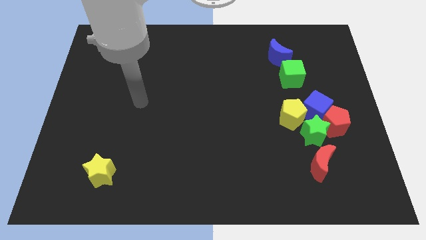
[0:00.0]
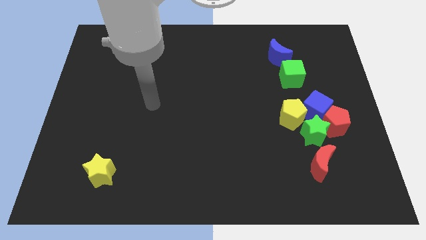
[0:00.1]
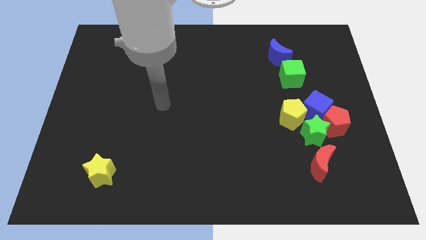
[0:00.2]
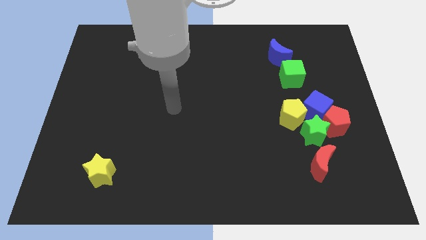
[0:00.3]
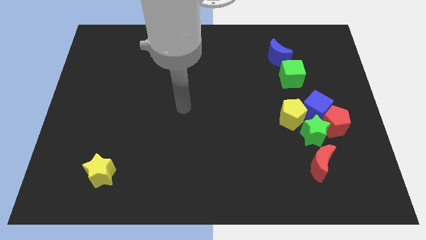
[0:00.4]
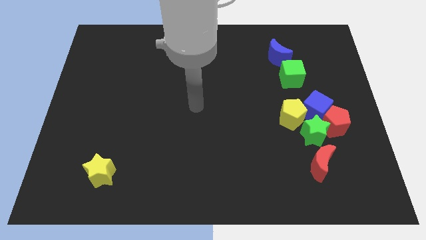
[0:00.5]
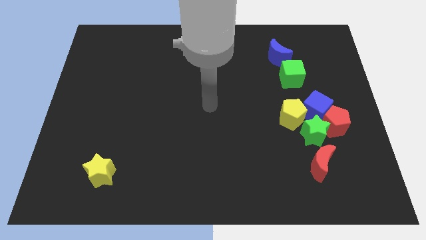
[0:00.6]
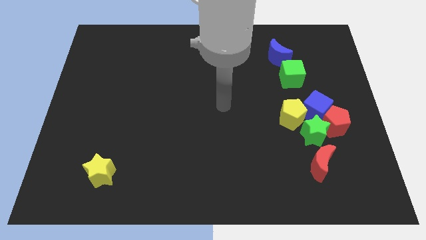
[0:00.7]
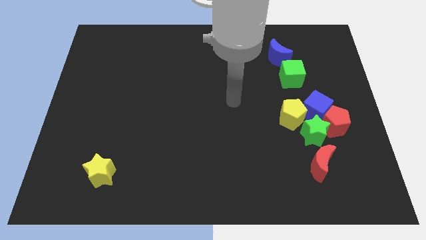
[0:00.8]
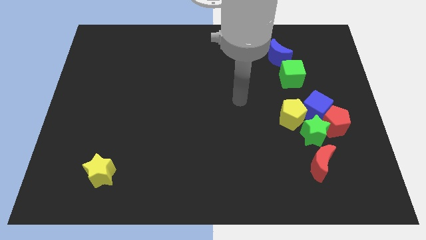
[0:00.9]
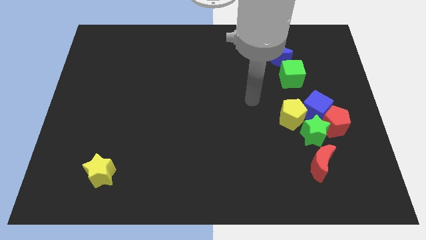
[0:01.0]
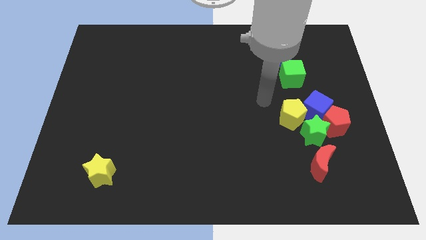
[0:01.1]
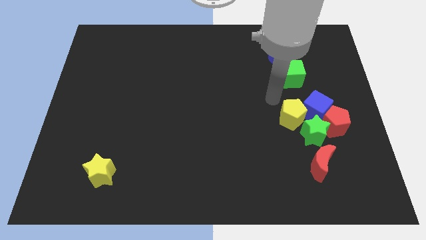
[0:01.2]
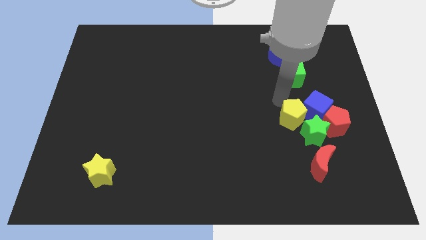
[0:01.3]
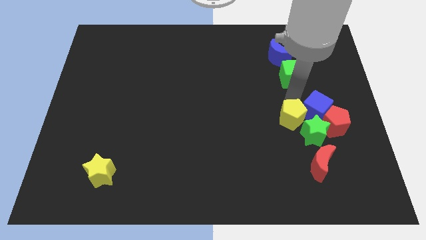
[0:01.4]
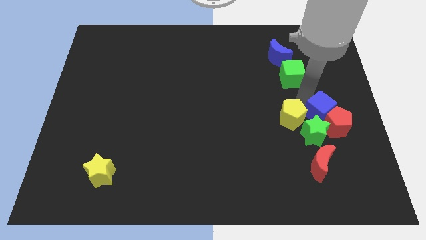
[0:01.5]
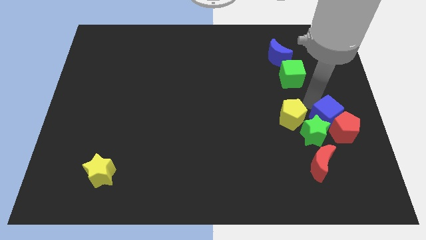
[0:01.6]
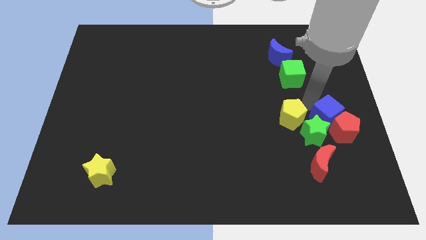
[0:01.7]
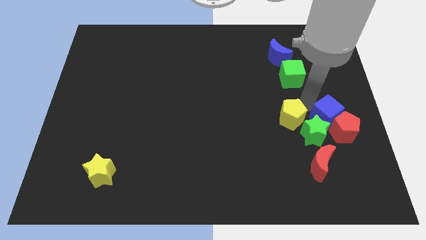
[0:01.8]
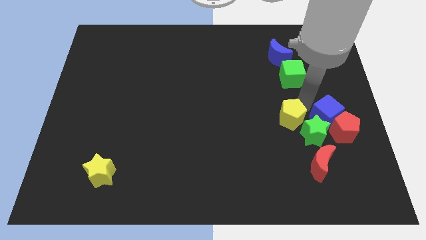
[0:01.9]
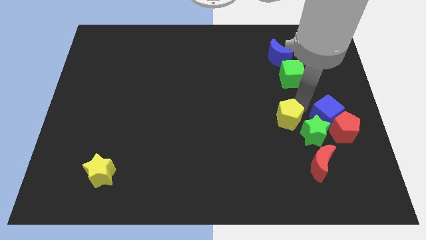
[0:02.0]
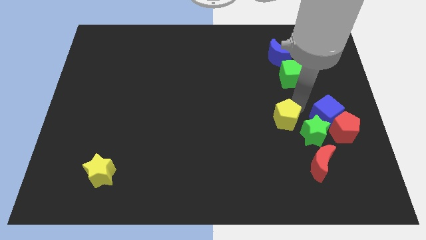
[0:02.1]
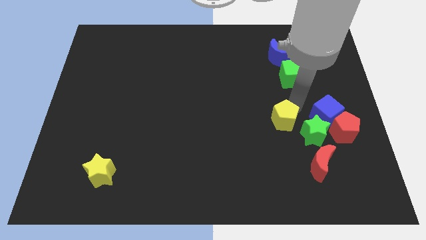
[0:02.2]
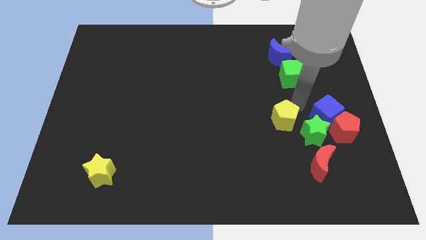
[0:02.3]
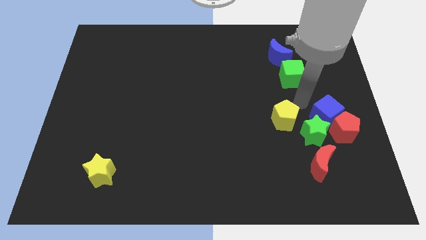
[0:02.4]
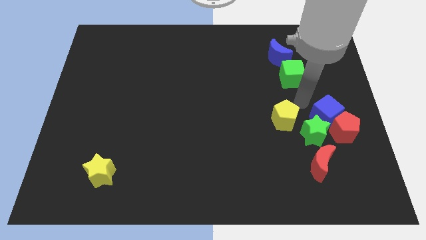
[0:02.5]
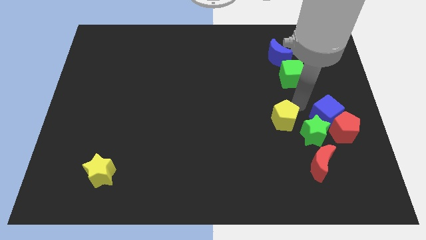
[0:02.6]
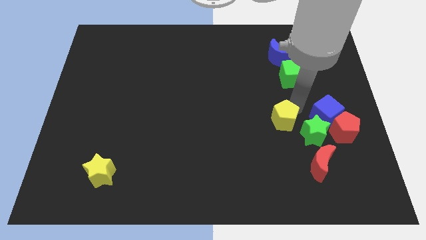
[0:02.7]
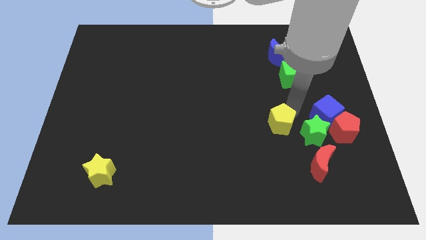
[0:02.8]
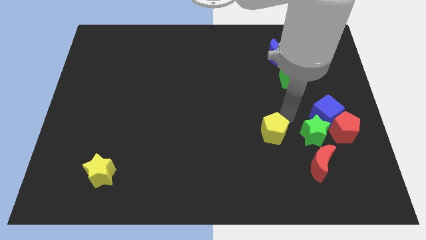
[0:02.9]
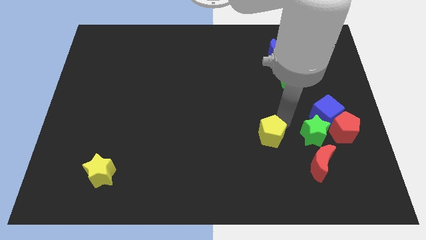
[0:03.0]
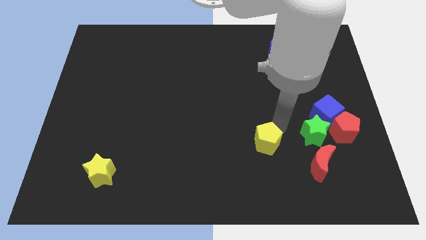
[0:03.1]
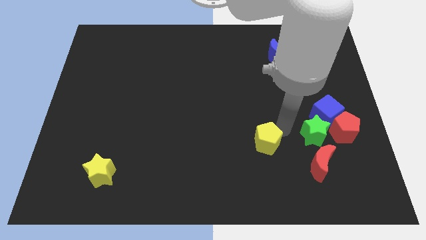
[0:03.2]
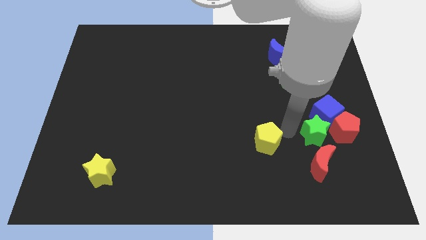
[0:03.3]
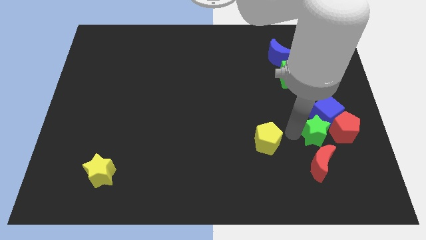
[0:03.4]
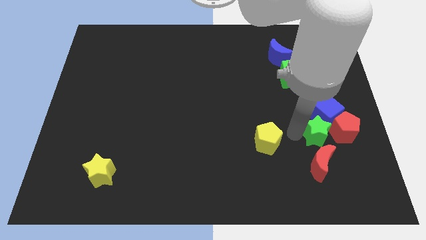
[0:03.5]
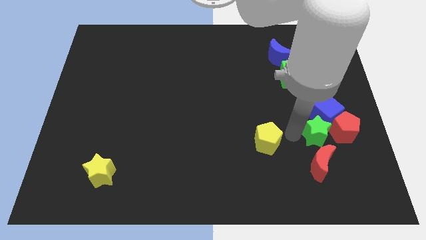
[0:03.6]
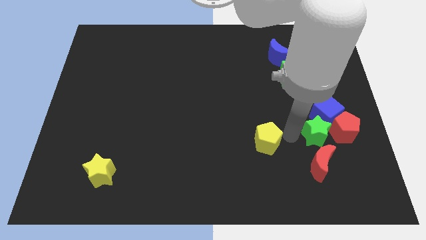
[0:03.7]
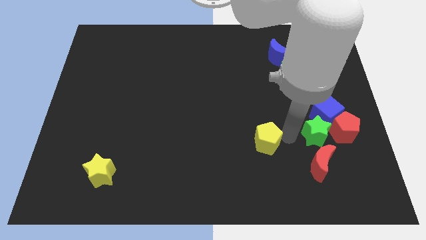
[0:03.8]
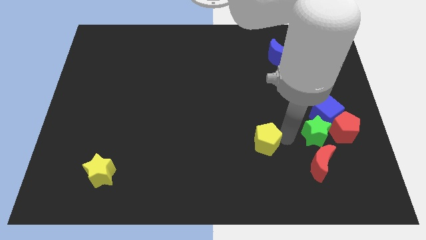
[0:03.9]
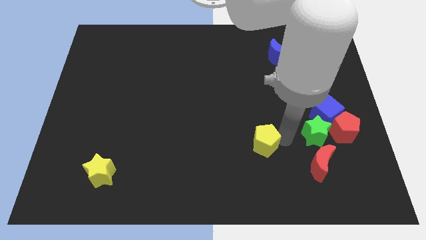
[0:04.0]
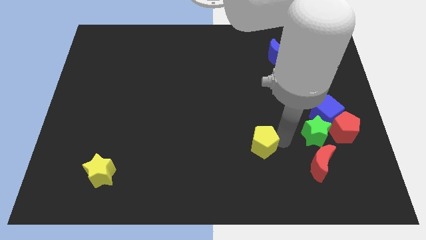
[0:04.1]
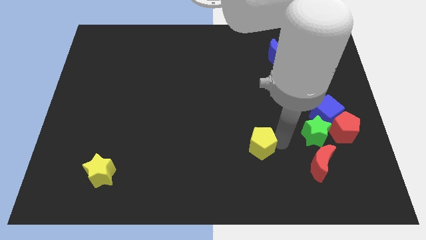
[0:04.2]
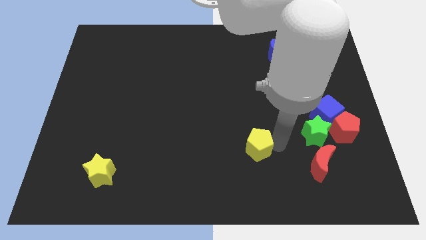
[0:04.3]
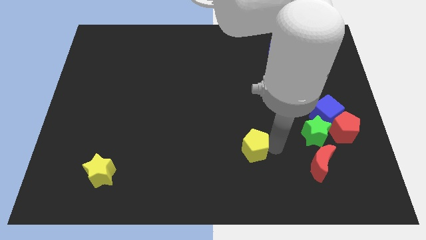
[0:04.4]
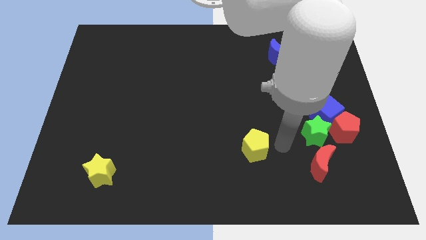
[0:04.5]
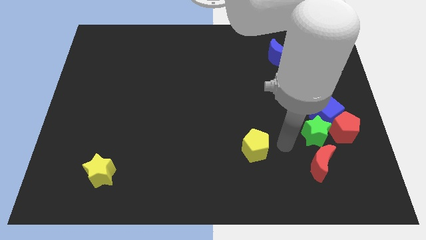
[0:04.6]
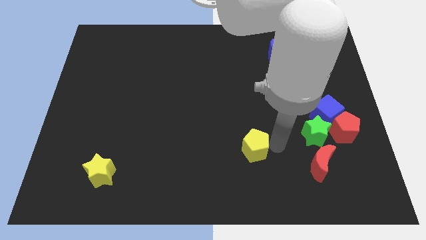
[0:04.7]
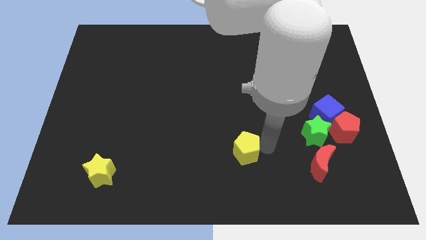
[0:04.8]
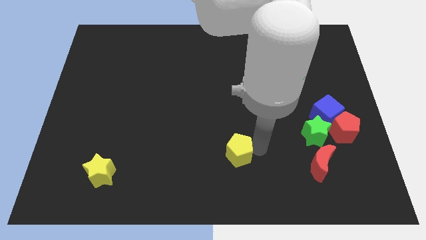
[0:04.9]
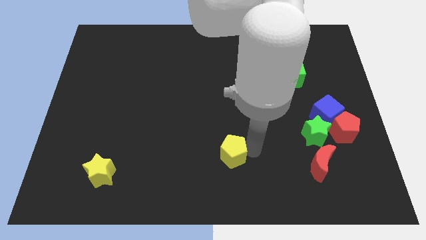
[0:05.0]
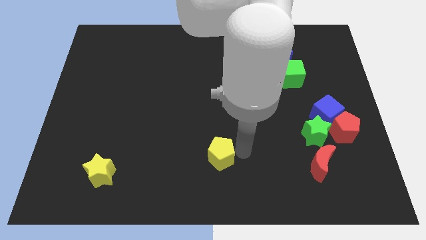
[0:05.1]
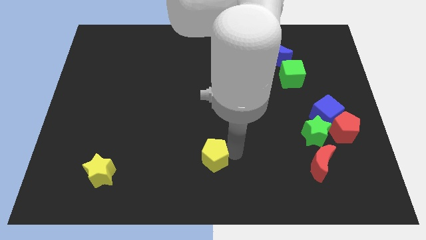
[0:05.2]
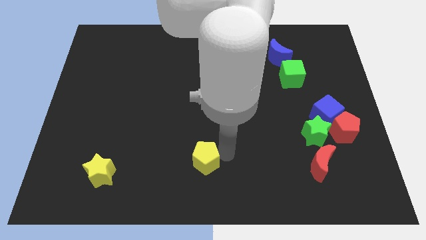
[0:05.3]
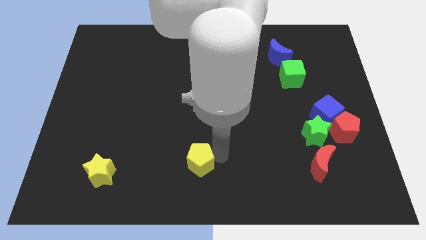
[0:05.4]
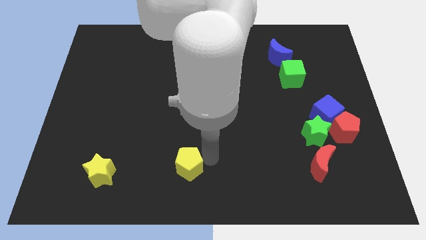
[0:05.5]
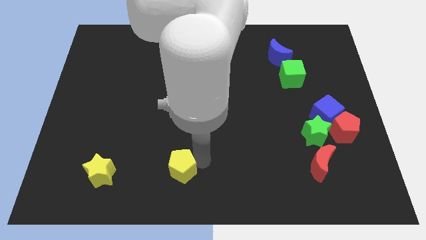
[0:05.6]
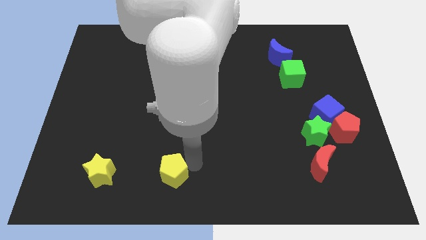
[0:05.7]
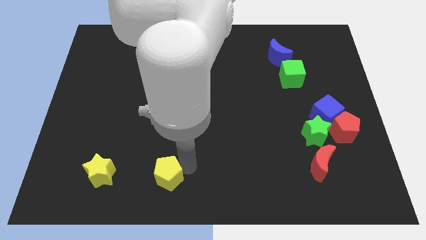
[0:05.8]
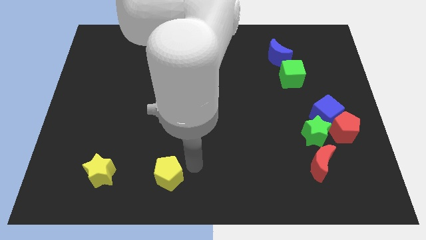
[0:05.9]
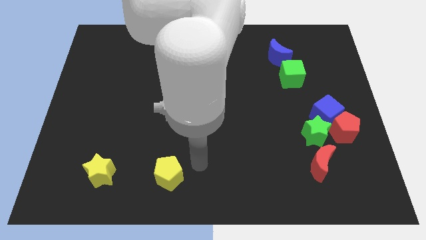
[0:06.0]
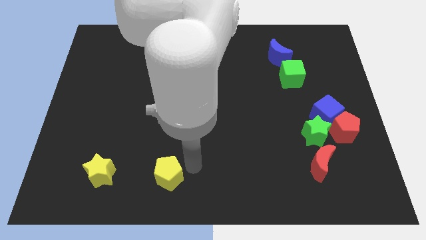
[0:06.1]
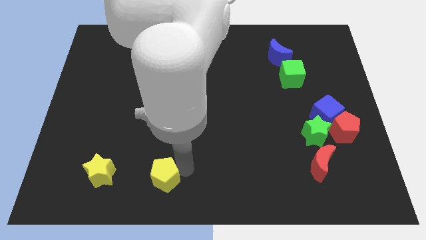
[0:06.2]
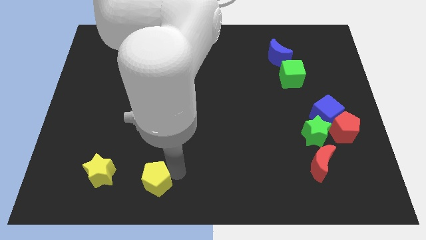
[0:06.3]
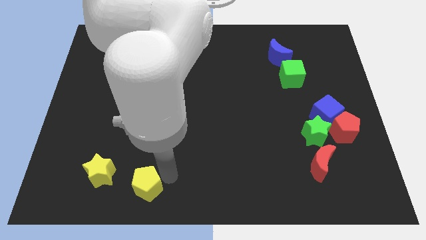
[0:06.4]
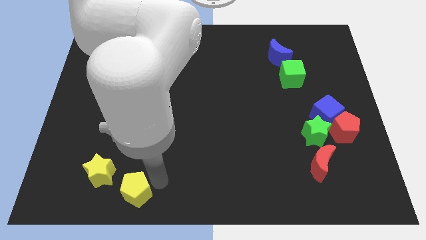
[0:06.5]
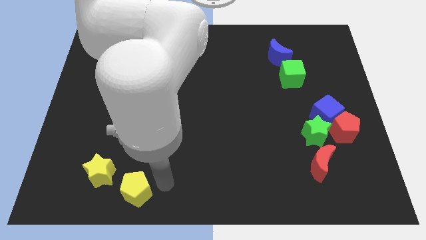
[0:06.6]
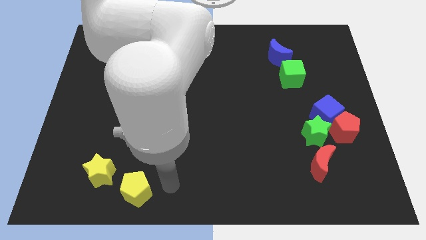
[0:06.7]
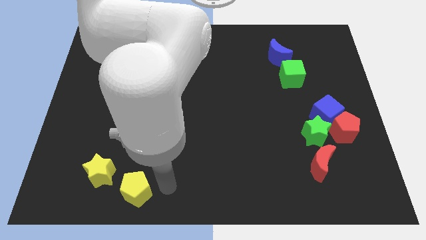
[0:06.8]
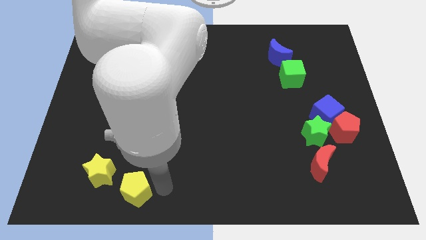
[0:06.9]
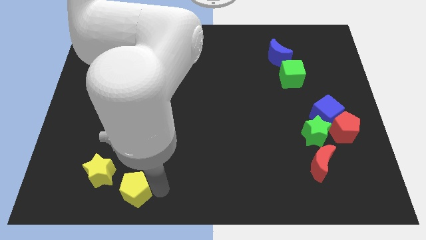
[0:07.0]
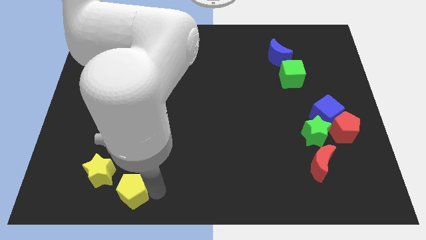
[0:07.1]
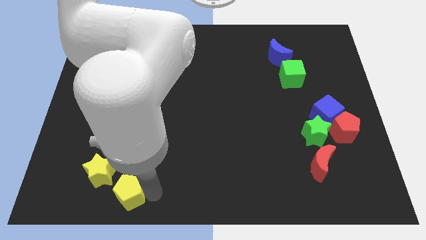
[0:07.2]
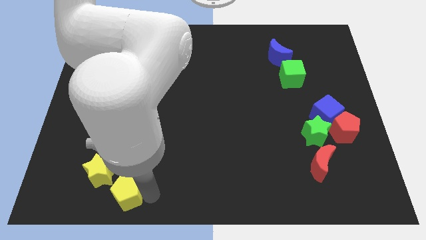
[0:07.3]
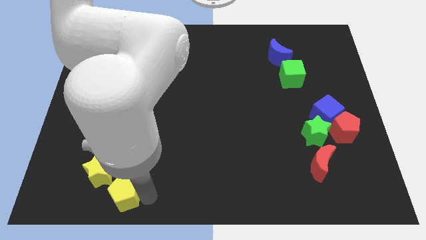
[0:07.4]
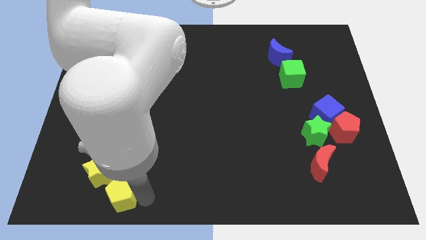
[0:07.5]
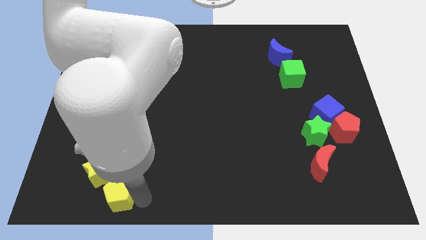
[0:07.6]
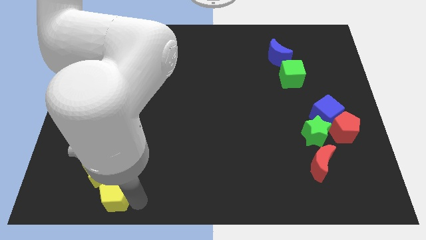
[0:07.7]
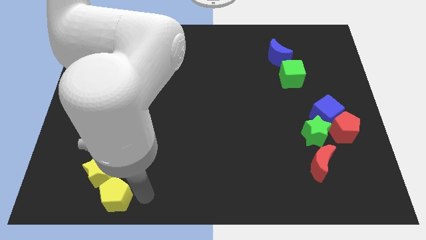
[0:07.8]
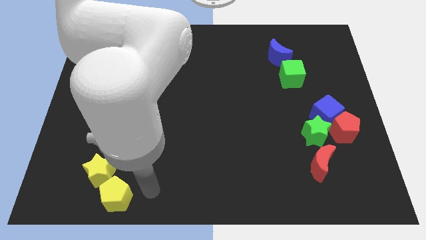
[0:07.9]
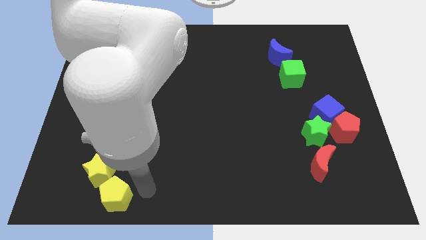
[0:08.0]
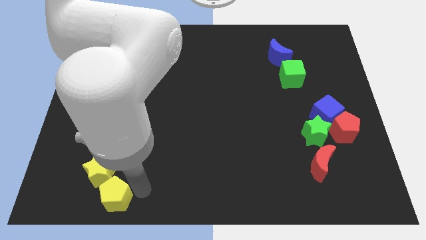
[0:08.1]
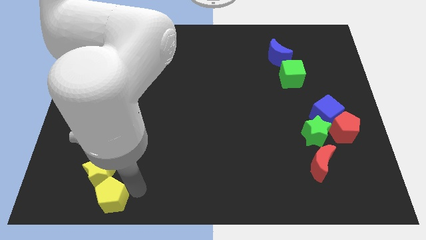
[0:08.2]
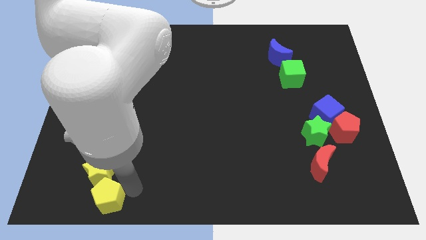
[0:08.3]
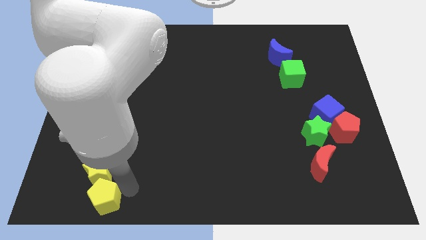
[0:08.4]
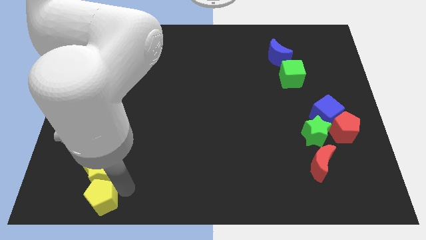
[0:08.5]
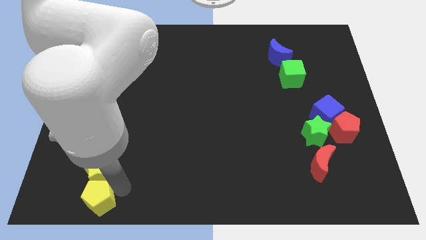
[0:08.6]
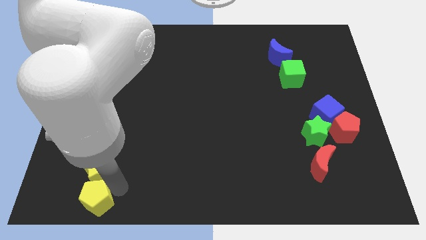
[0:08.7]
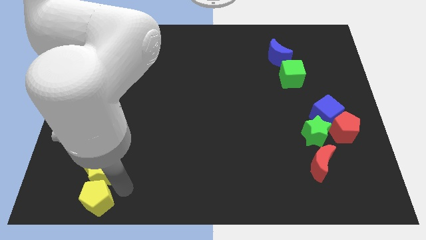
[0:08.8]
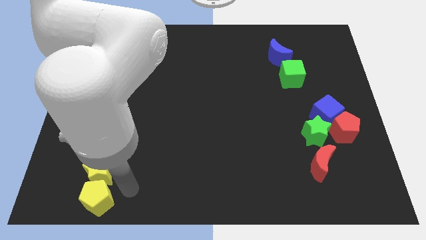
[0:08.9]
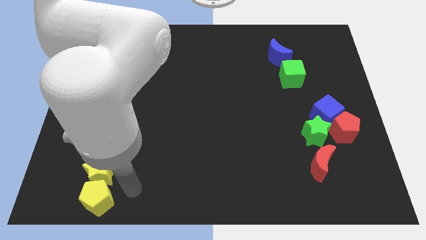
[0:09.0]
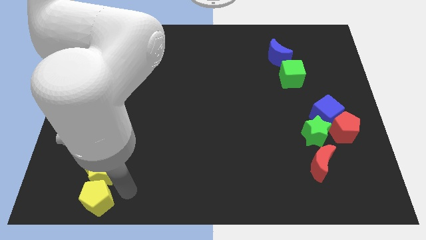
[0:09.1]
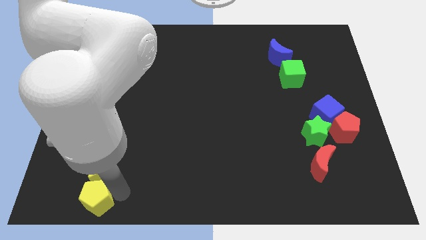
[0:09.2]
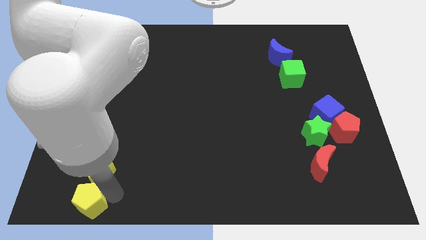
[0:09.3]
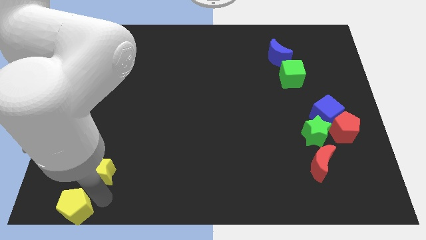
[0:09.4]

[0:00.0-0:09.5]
push the yellow pentagon to the lower left corner
